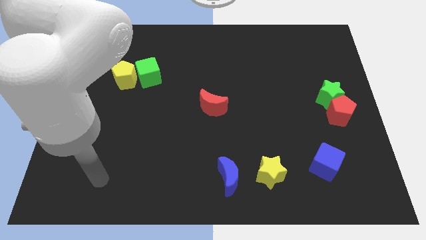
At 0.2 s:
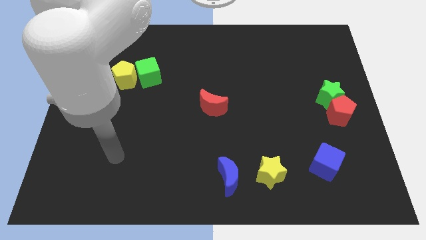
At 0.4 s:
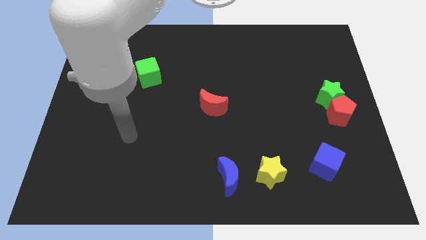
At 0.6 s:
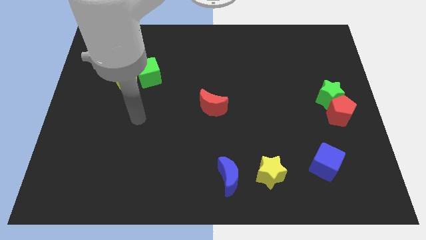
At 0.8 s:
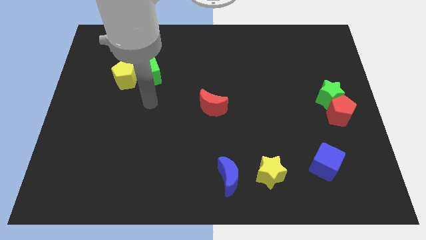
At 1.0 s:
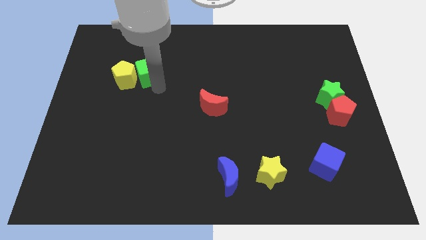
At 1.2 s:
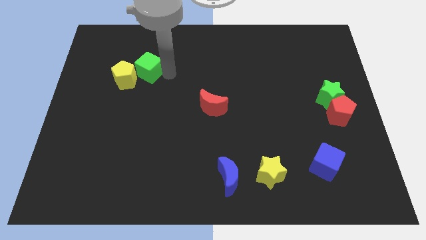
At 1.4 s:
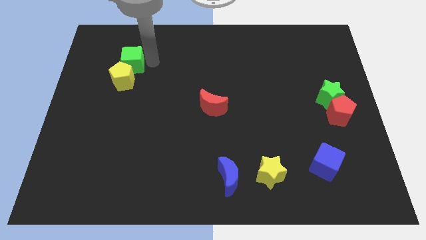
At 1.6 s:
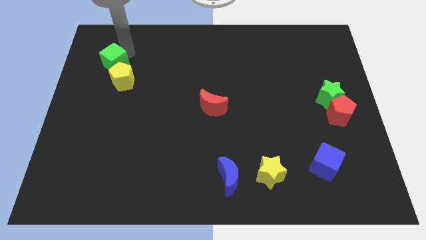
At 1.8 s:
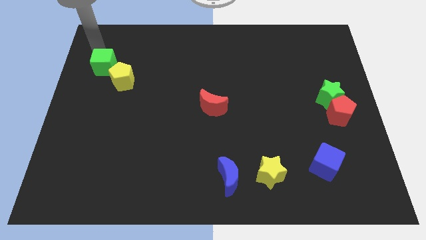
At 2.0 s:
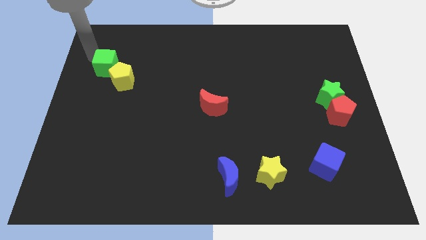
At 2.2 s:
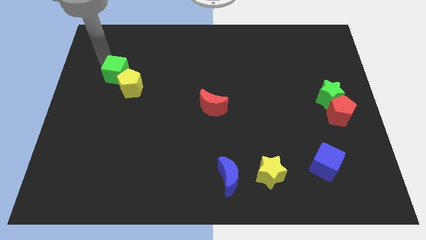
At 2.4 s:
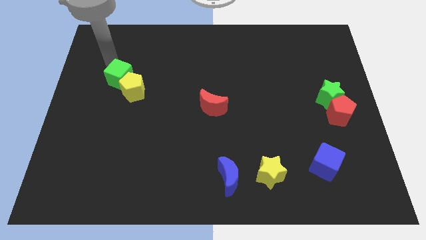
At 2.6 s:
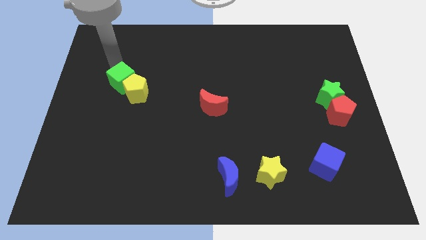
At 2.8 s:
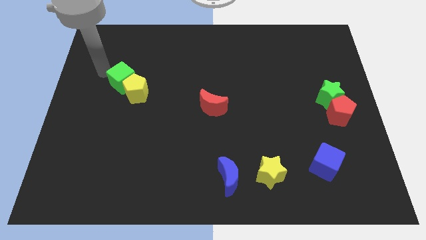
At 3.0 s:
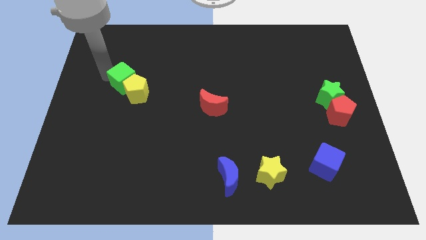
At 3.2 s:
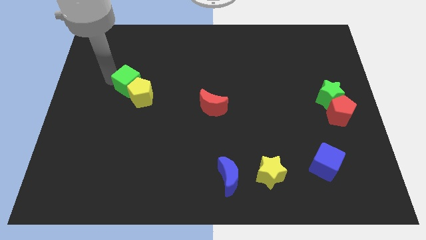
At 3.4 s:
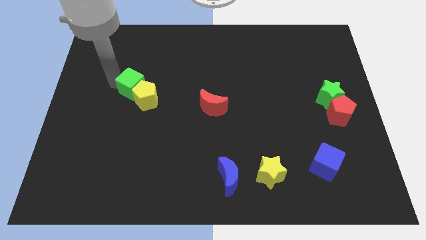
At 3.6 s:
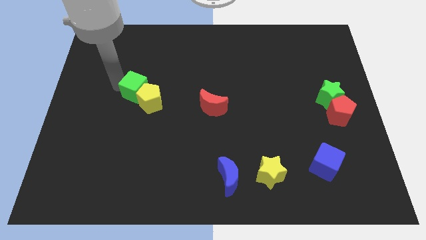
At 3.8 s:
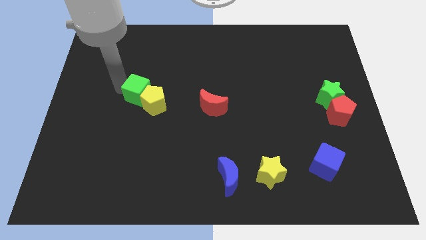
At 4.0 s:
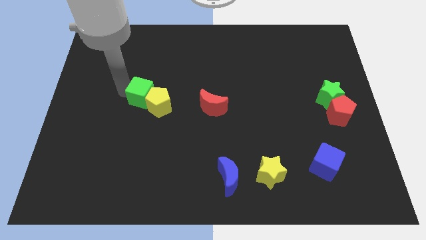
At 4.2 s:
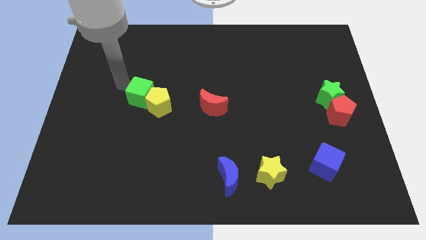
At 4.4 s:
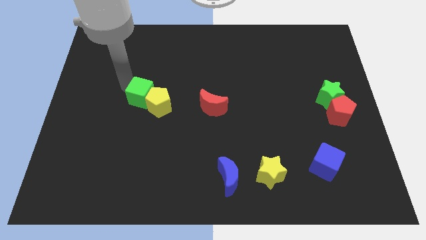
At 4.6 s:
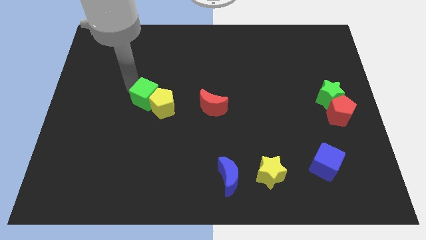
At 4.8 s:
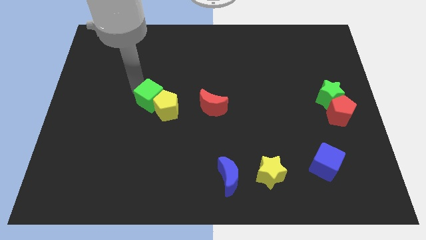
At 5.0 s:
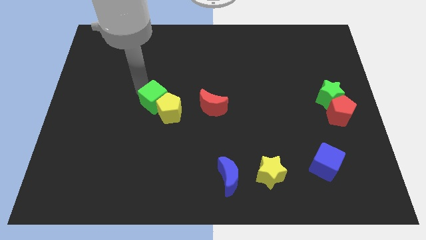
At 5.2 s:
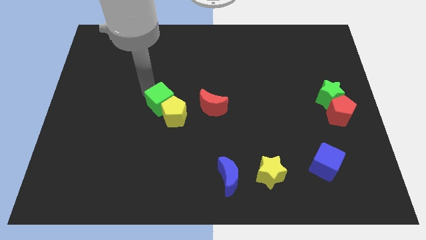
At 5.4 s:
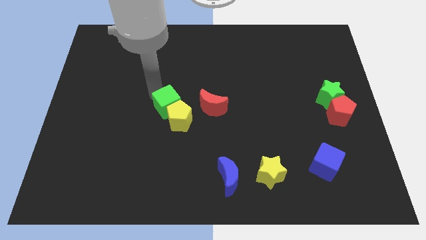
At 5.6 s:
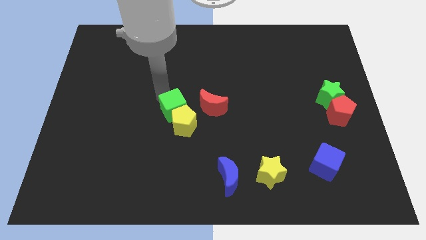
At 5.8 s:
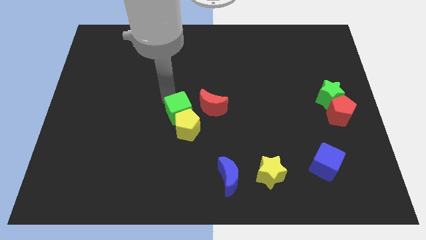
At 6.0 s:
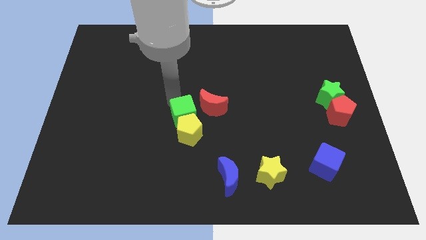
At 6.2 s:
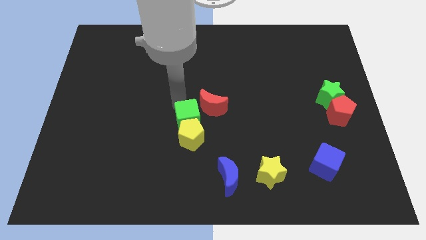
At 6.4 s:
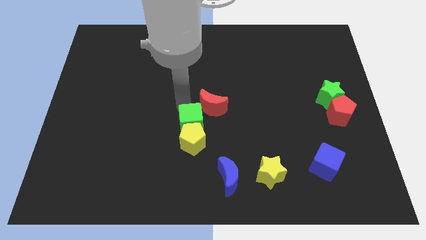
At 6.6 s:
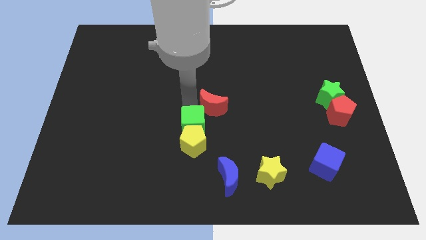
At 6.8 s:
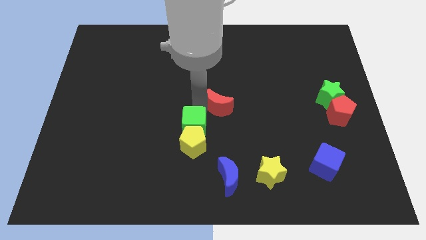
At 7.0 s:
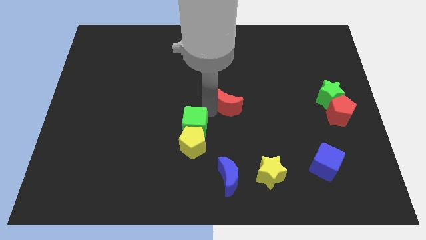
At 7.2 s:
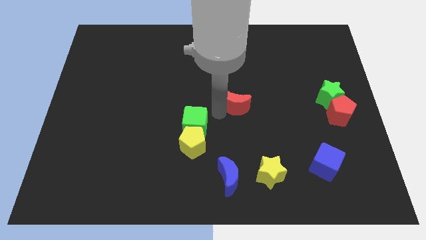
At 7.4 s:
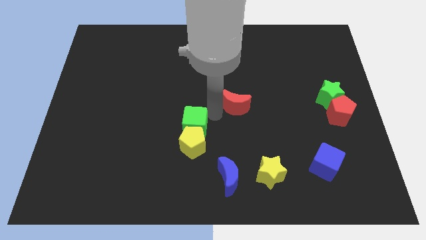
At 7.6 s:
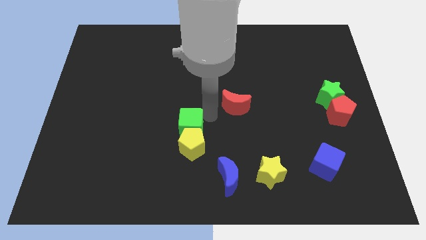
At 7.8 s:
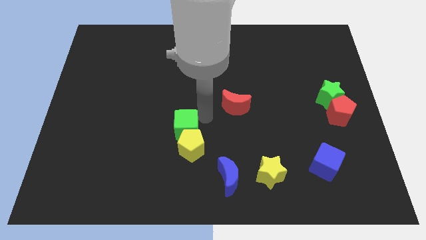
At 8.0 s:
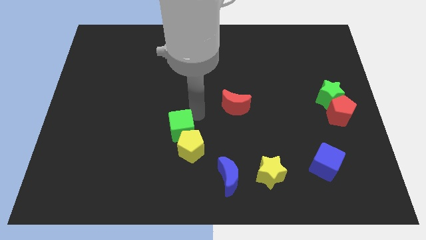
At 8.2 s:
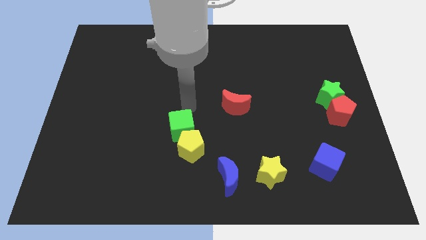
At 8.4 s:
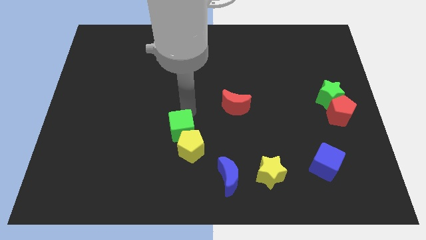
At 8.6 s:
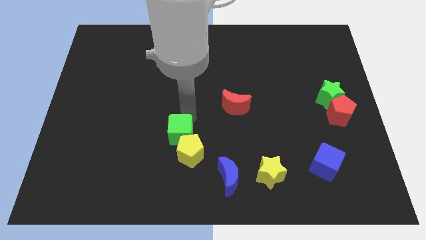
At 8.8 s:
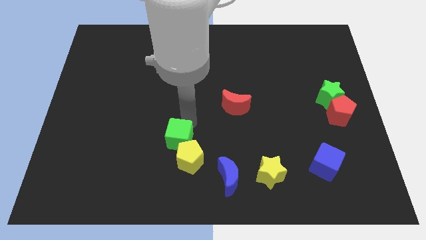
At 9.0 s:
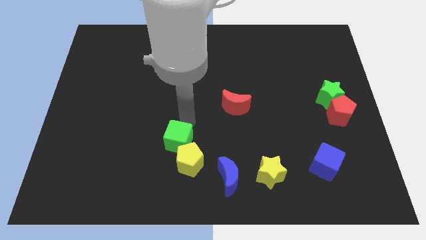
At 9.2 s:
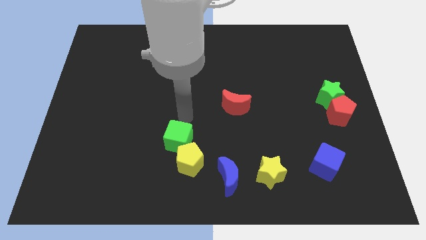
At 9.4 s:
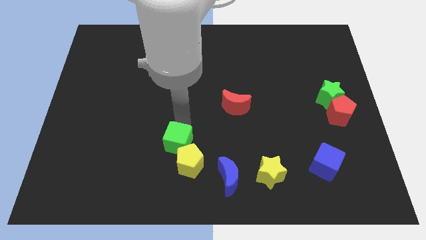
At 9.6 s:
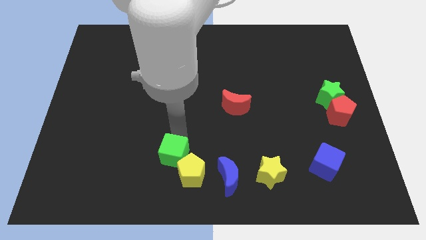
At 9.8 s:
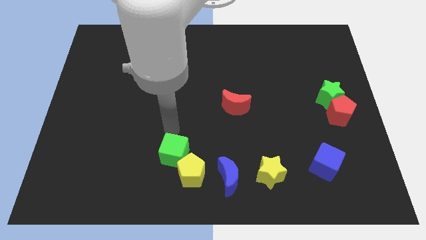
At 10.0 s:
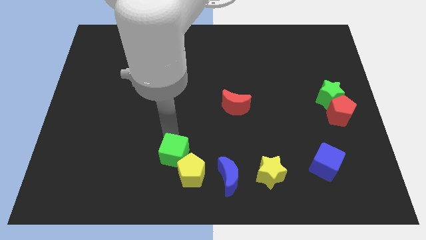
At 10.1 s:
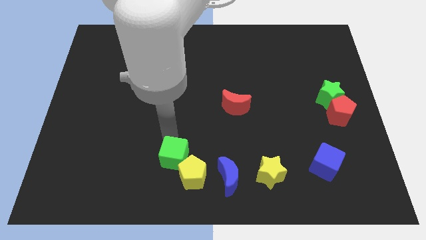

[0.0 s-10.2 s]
move the green cube just left of the blue moon

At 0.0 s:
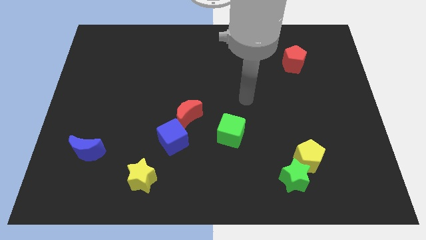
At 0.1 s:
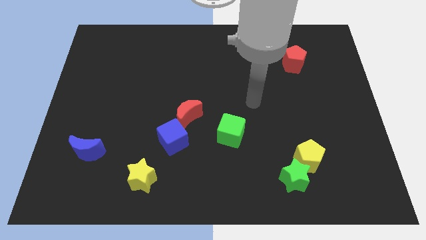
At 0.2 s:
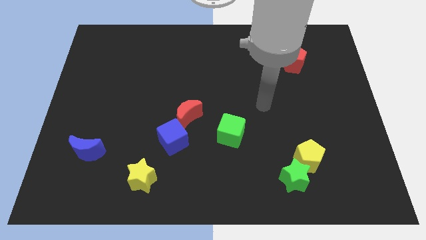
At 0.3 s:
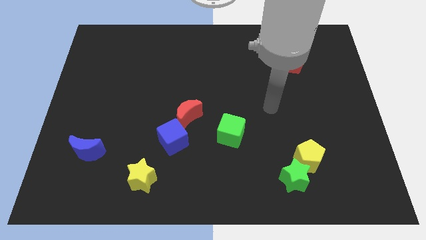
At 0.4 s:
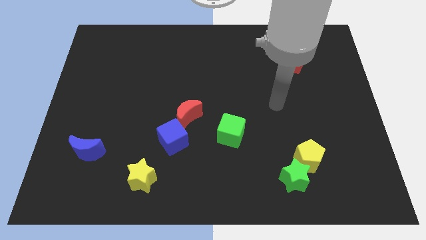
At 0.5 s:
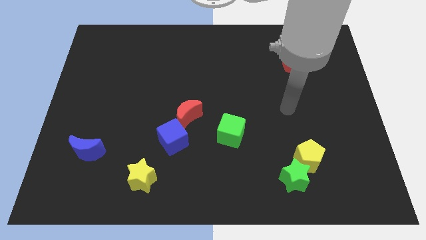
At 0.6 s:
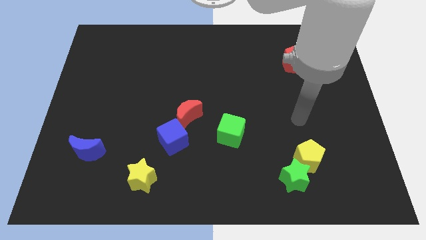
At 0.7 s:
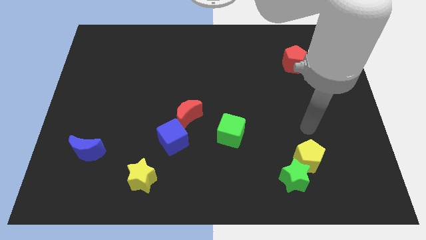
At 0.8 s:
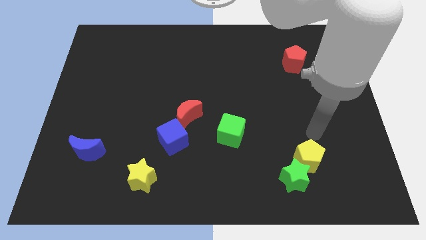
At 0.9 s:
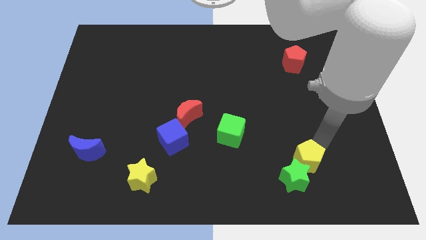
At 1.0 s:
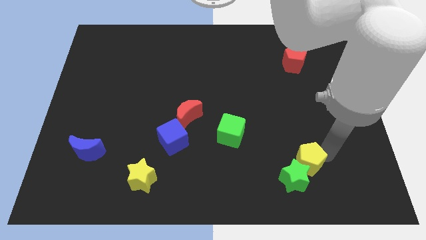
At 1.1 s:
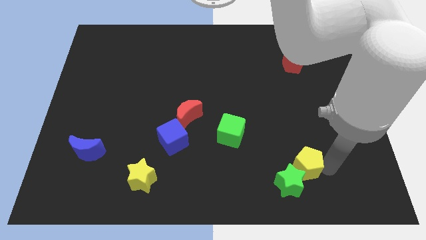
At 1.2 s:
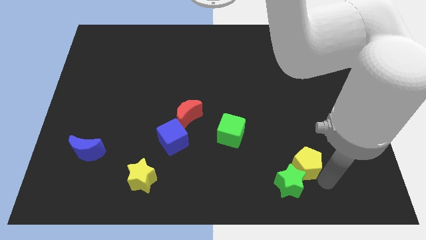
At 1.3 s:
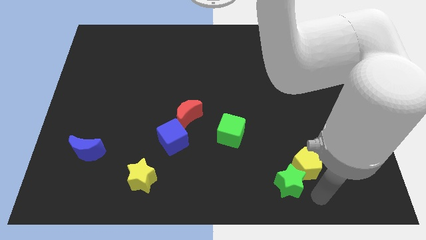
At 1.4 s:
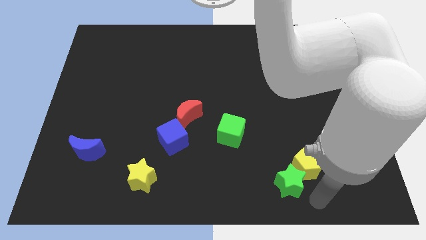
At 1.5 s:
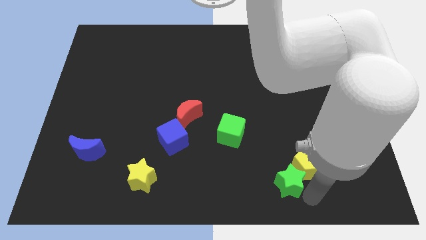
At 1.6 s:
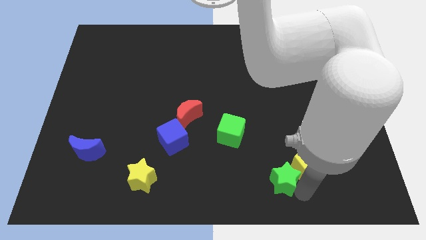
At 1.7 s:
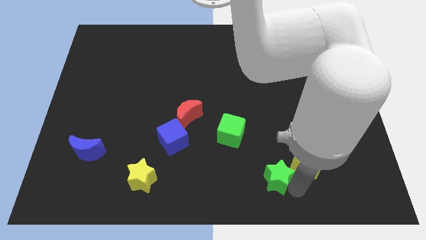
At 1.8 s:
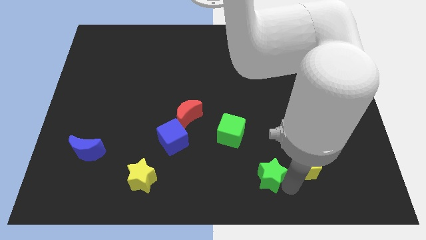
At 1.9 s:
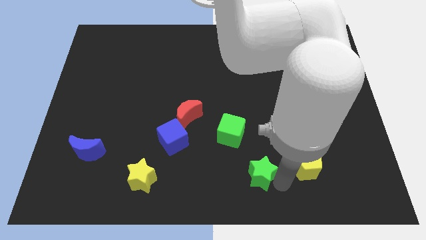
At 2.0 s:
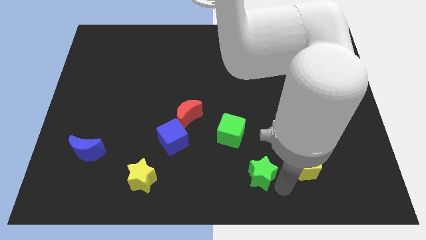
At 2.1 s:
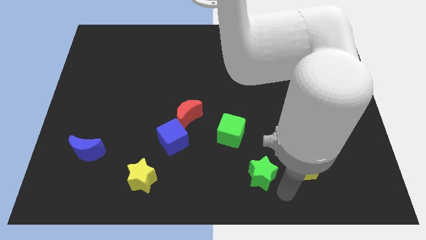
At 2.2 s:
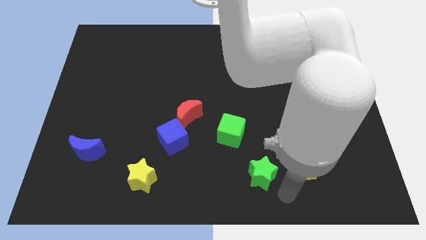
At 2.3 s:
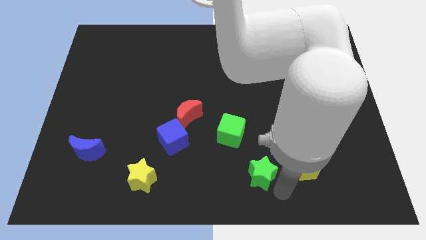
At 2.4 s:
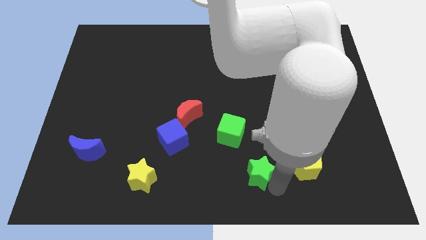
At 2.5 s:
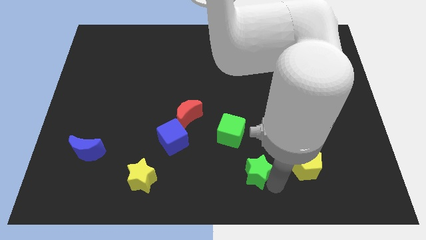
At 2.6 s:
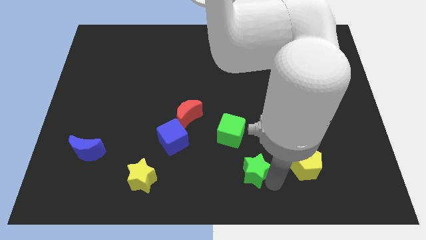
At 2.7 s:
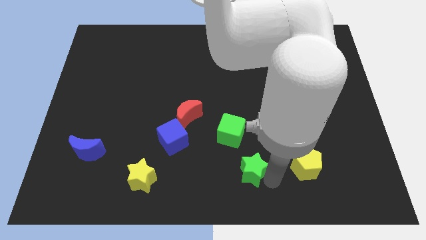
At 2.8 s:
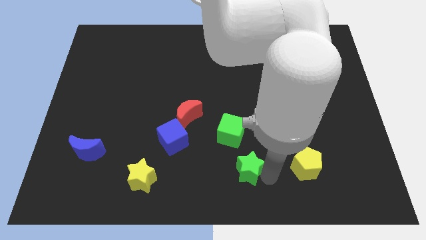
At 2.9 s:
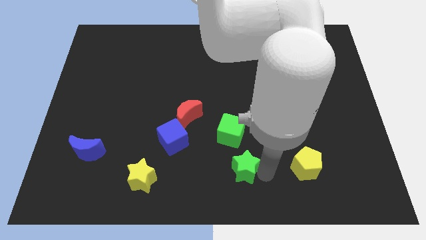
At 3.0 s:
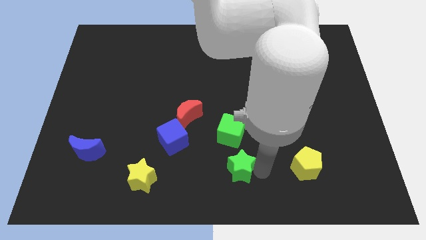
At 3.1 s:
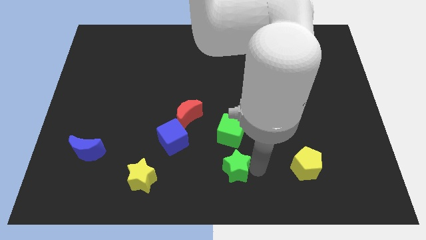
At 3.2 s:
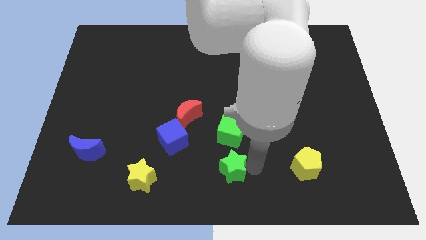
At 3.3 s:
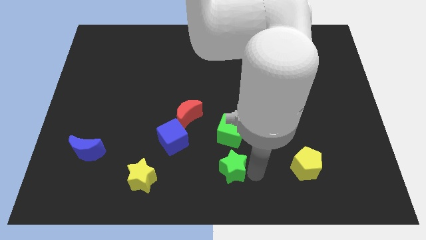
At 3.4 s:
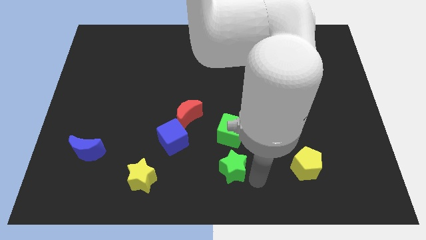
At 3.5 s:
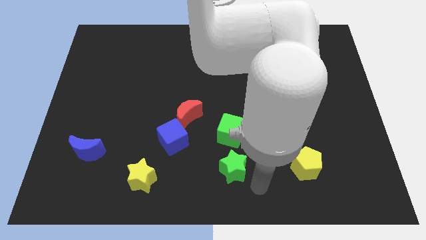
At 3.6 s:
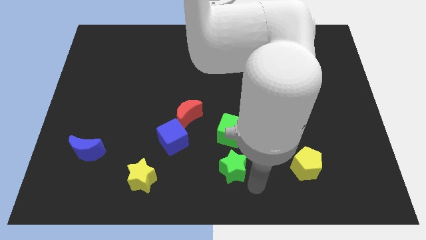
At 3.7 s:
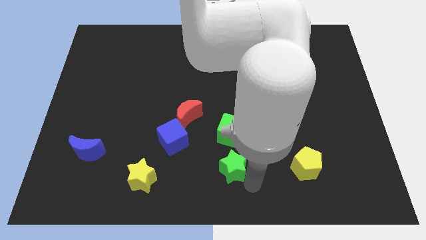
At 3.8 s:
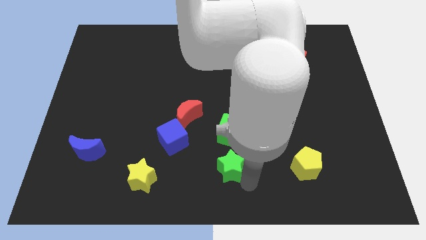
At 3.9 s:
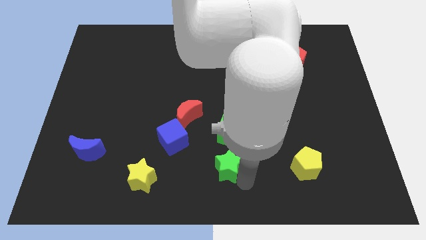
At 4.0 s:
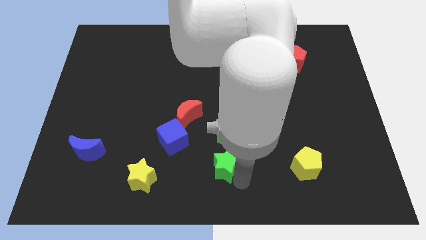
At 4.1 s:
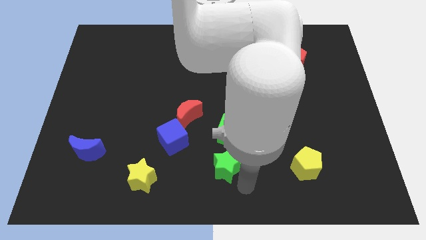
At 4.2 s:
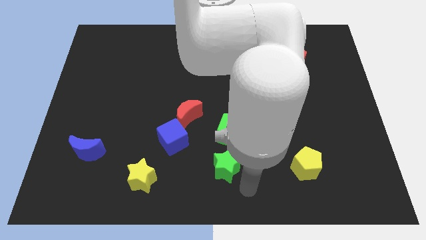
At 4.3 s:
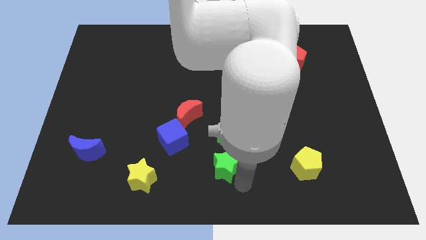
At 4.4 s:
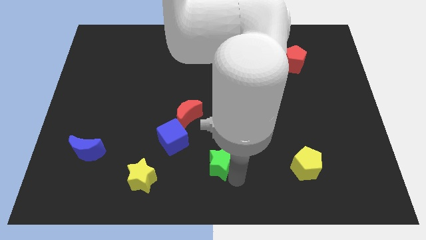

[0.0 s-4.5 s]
put the green star diagonally down and to the left of the green cube
